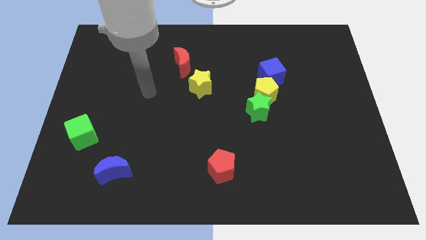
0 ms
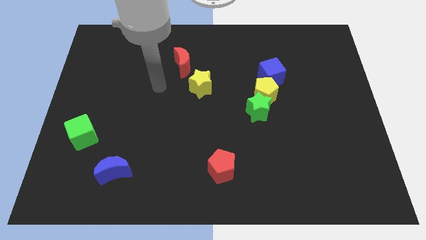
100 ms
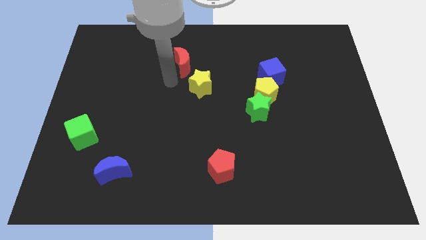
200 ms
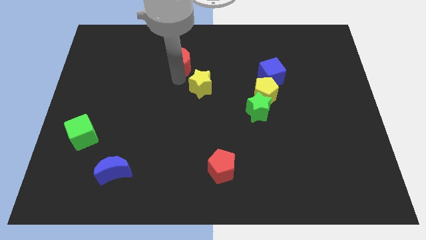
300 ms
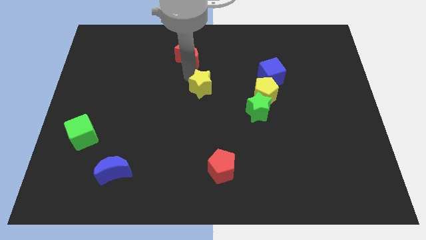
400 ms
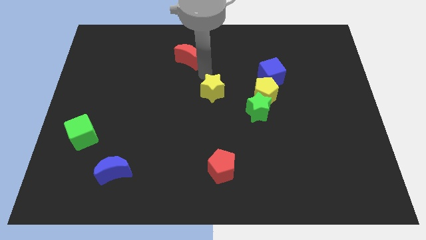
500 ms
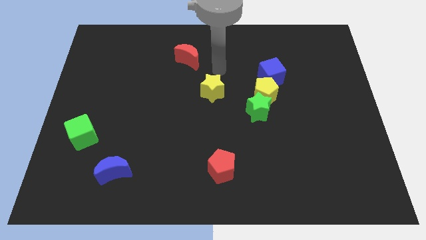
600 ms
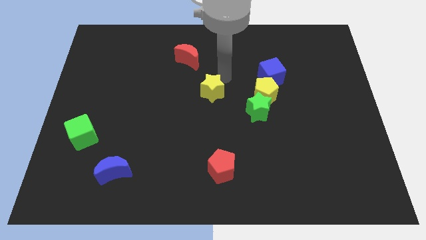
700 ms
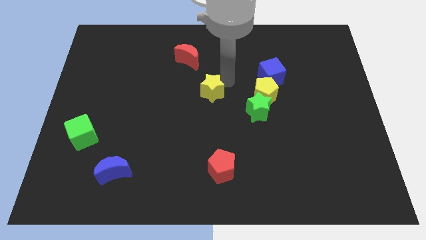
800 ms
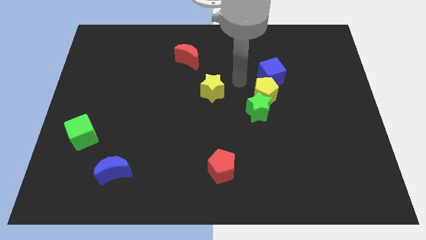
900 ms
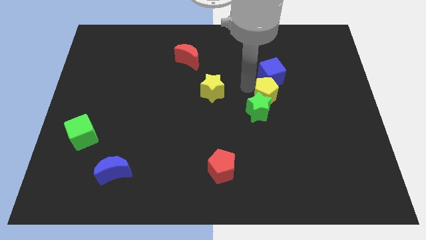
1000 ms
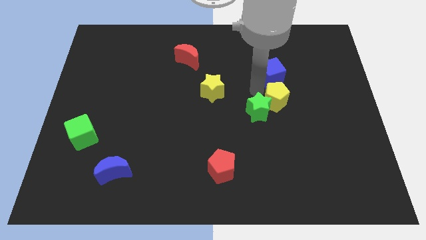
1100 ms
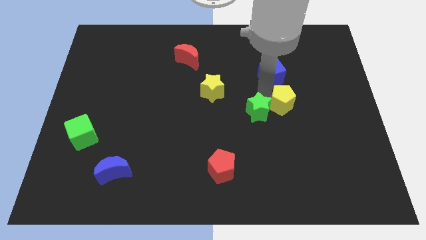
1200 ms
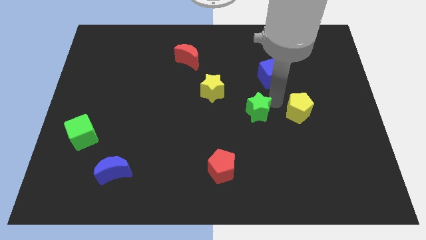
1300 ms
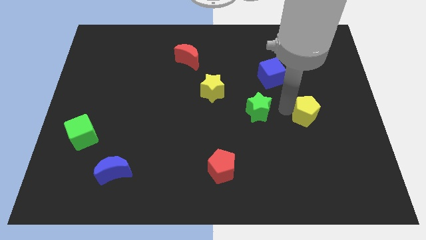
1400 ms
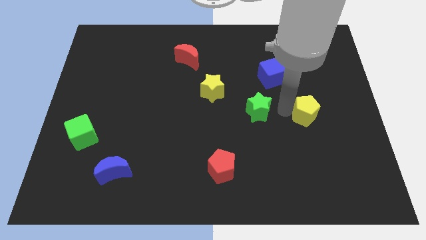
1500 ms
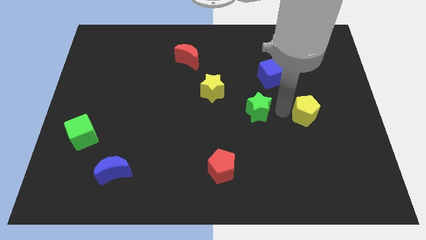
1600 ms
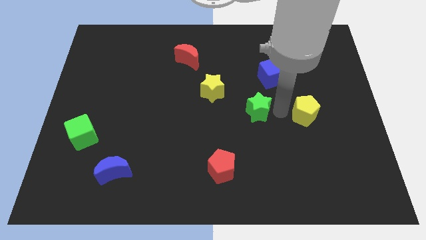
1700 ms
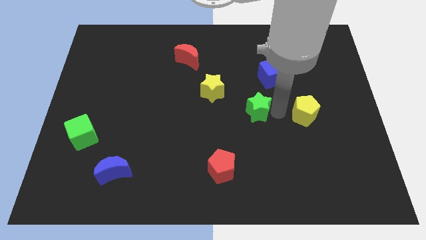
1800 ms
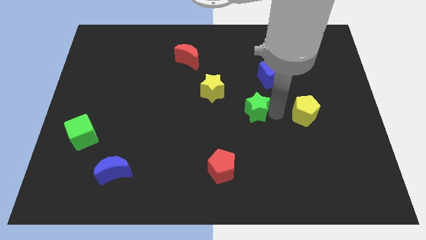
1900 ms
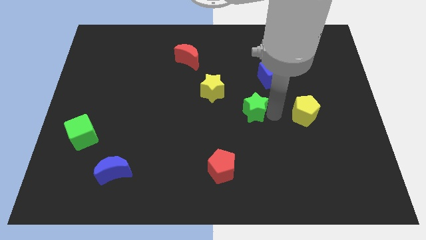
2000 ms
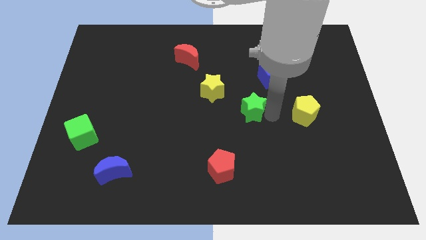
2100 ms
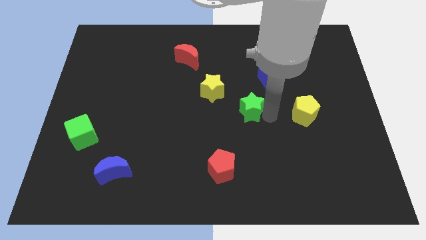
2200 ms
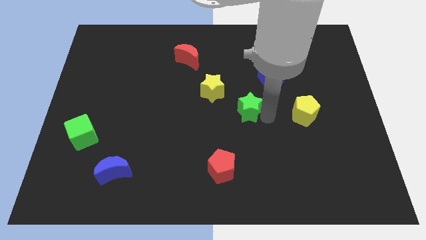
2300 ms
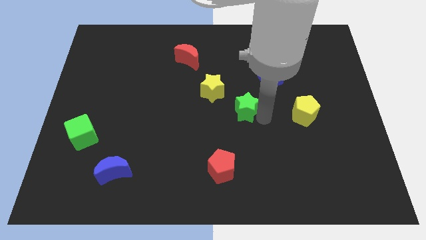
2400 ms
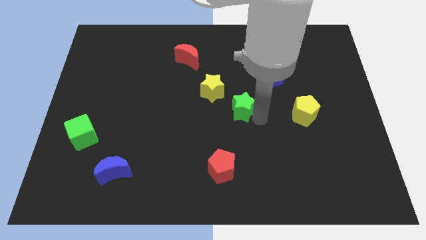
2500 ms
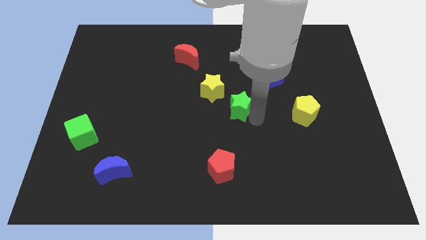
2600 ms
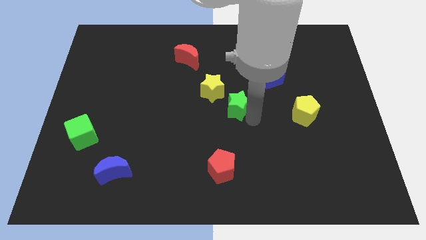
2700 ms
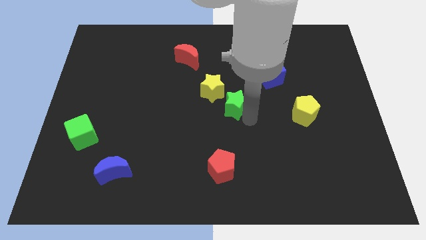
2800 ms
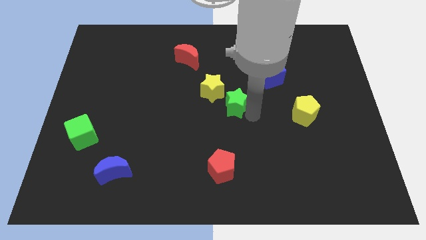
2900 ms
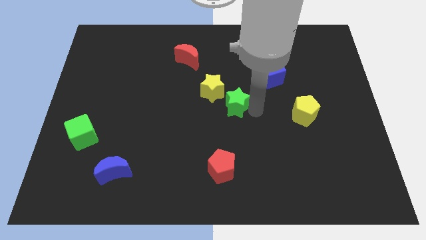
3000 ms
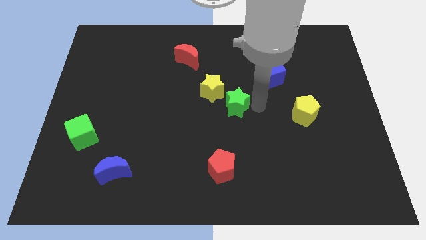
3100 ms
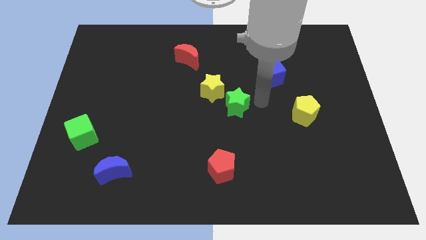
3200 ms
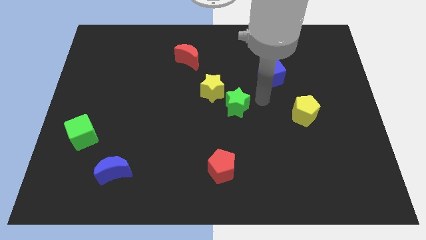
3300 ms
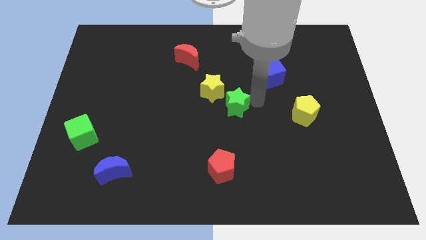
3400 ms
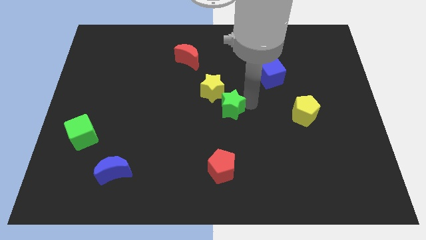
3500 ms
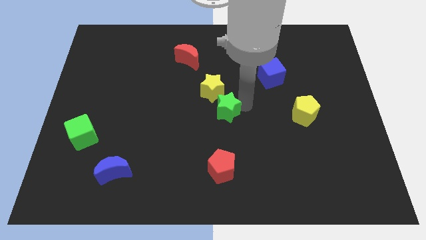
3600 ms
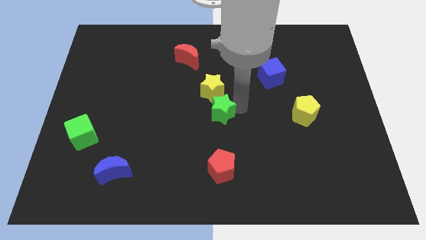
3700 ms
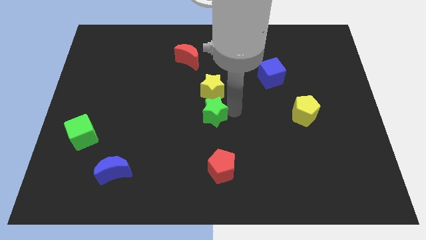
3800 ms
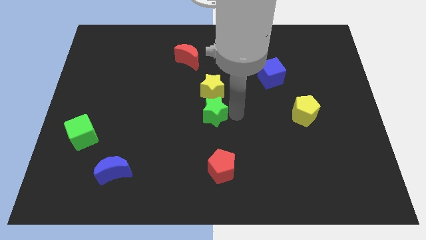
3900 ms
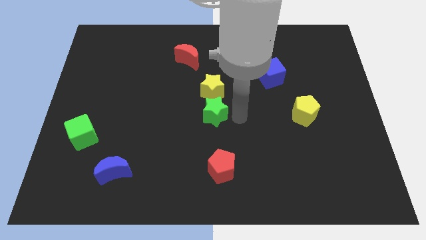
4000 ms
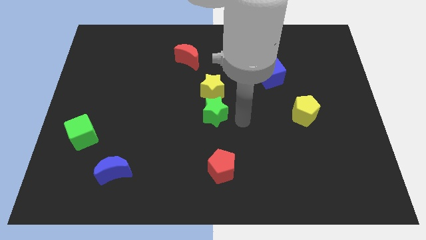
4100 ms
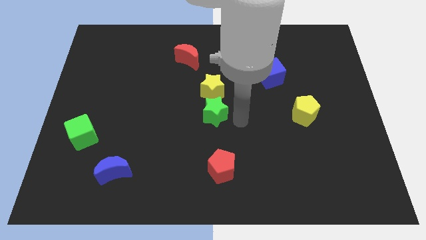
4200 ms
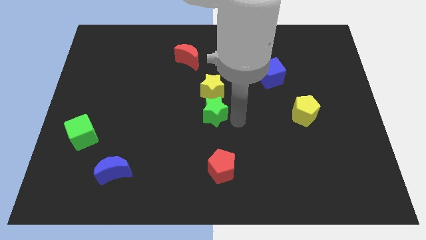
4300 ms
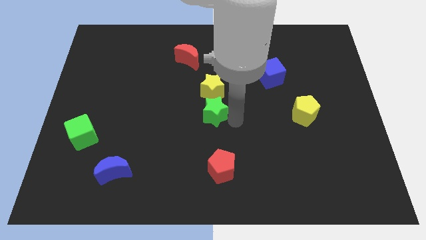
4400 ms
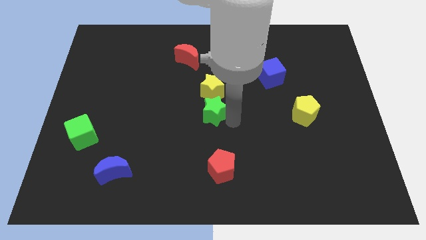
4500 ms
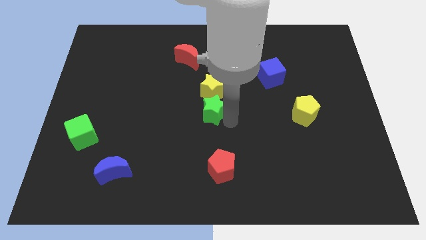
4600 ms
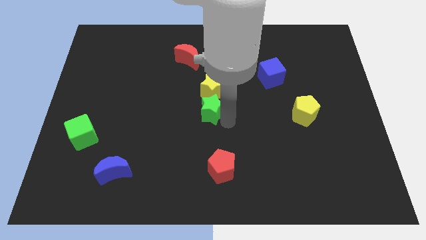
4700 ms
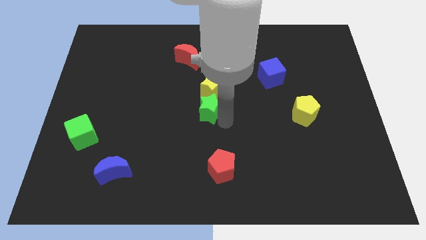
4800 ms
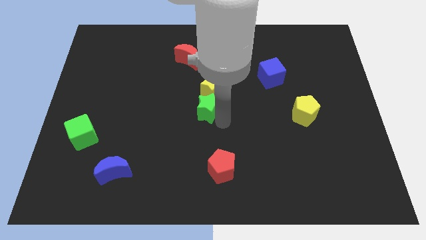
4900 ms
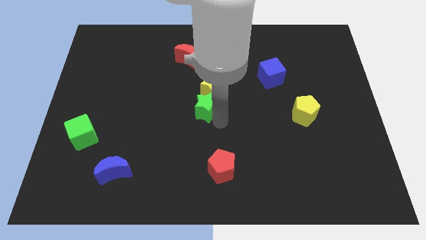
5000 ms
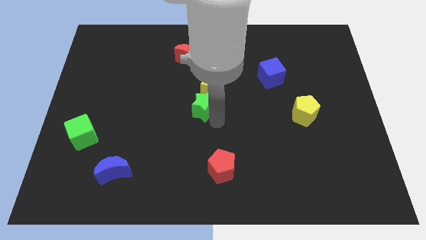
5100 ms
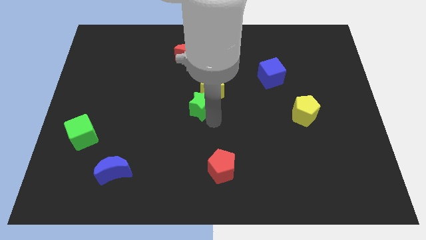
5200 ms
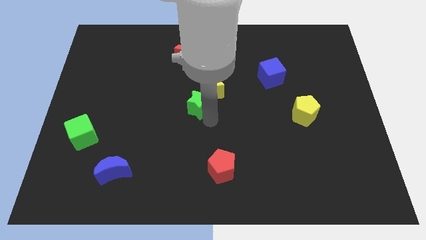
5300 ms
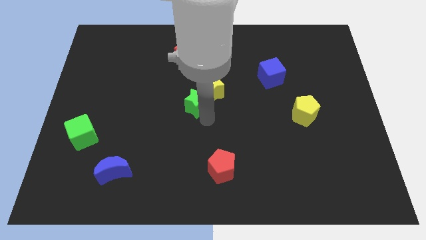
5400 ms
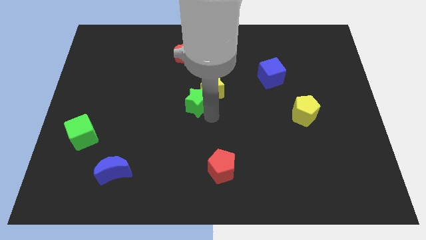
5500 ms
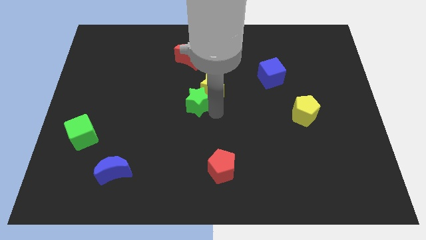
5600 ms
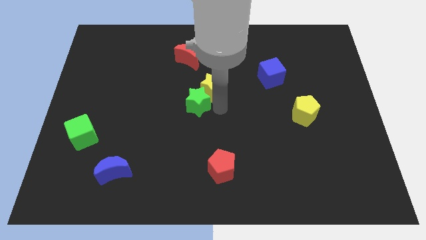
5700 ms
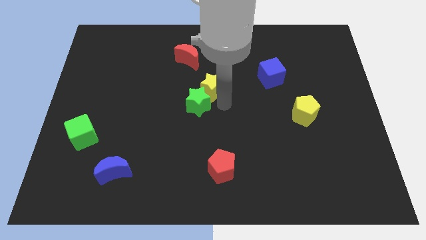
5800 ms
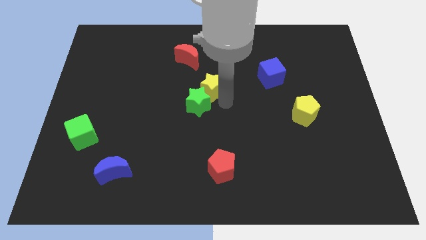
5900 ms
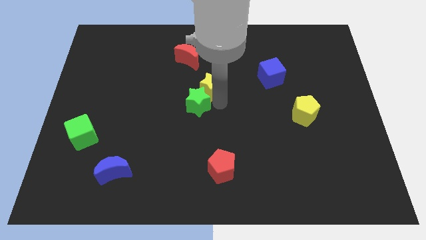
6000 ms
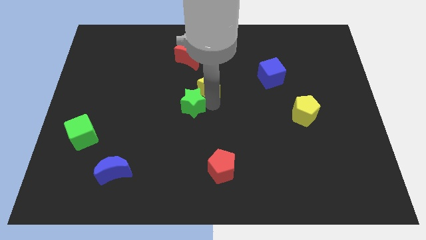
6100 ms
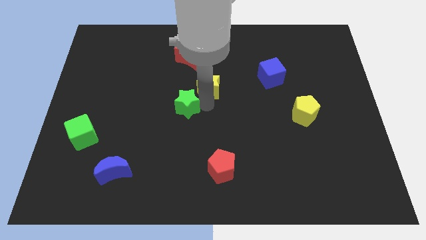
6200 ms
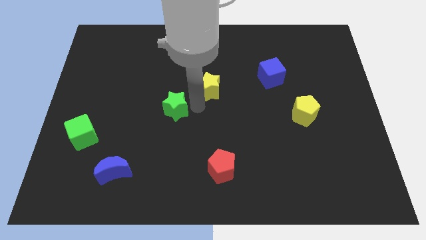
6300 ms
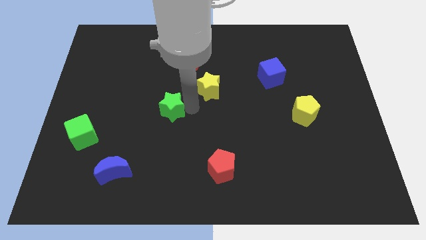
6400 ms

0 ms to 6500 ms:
move the green star to the left

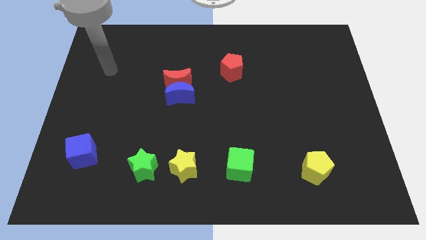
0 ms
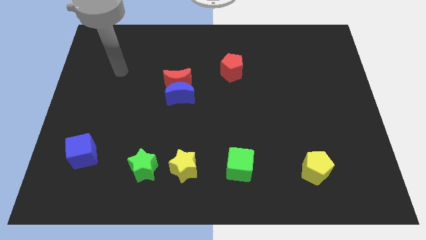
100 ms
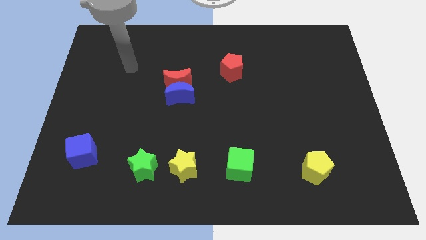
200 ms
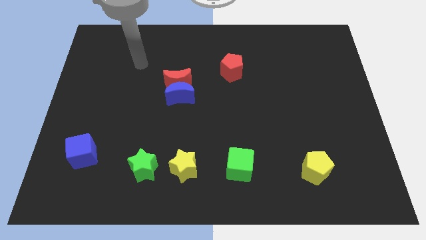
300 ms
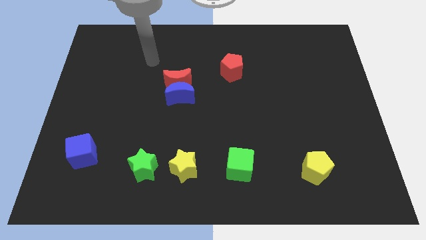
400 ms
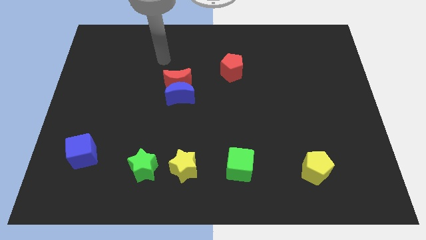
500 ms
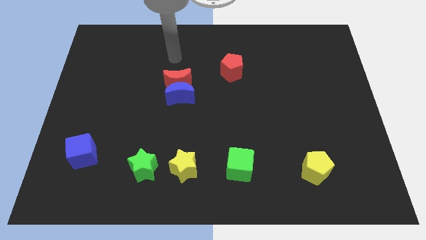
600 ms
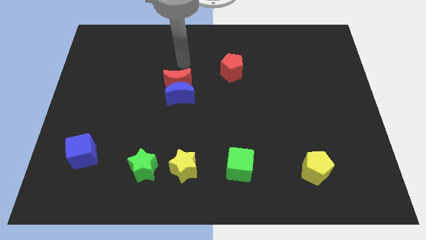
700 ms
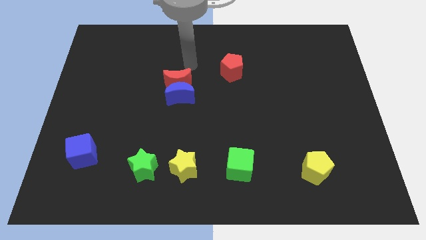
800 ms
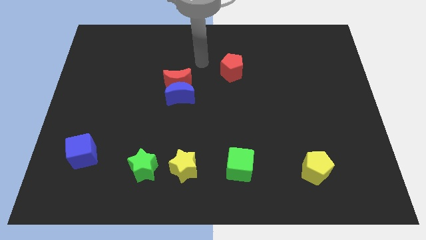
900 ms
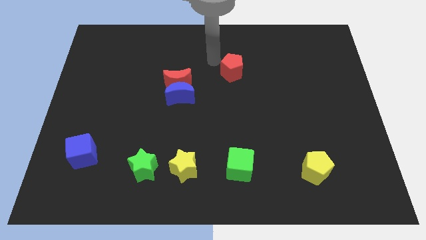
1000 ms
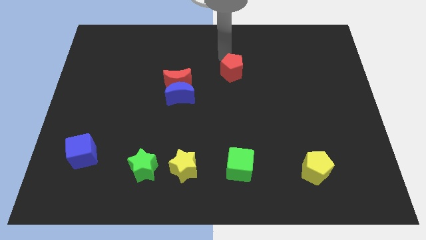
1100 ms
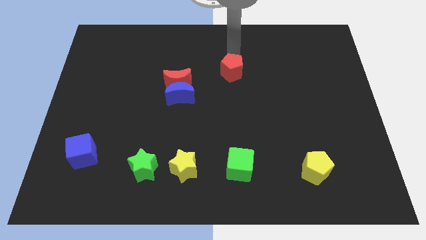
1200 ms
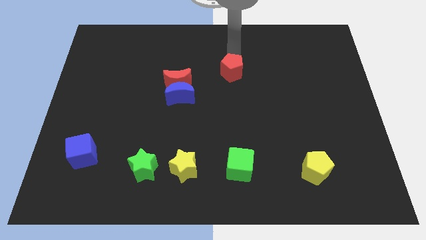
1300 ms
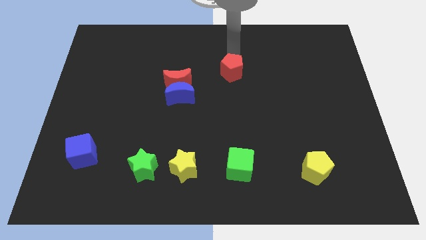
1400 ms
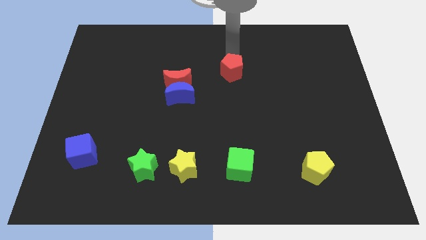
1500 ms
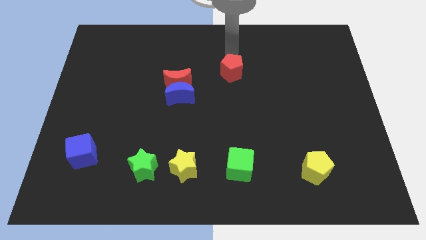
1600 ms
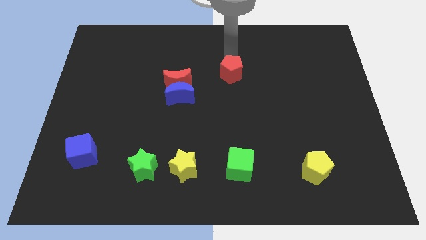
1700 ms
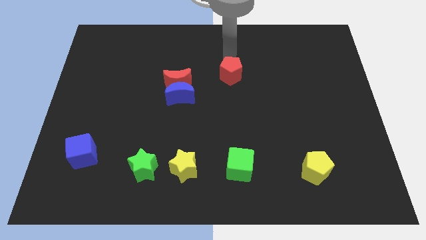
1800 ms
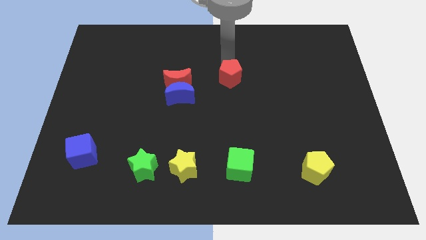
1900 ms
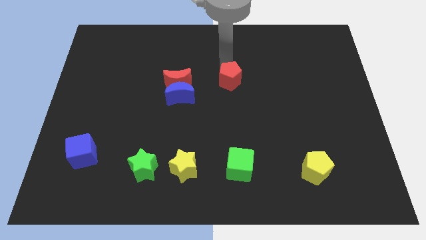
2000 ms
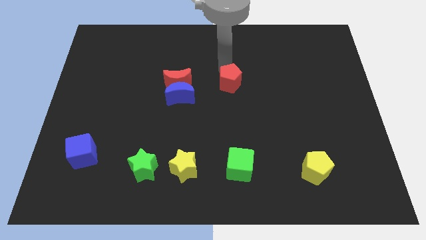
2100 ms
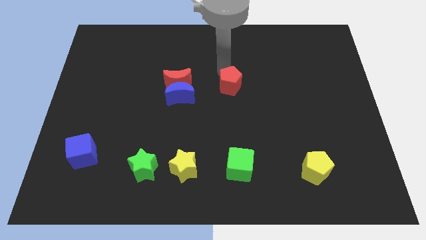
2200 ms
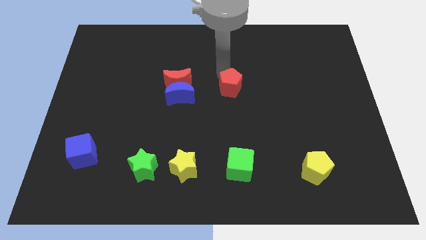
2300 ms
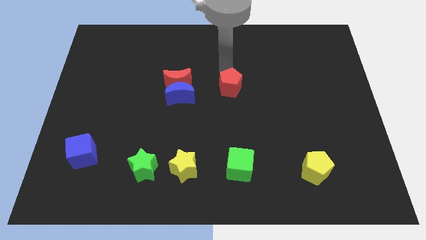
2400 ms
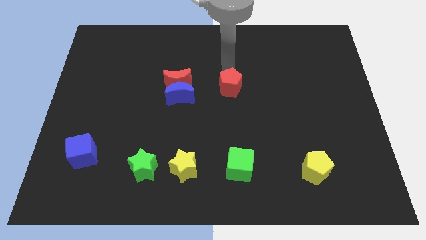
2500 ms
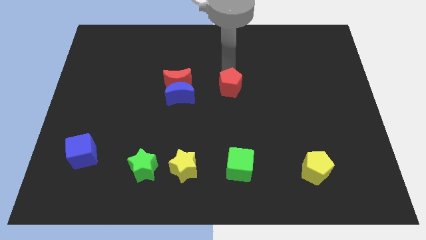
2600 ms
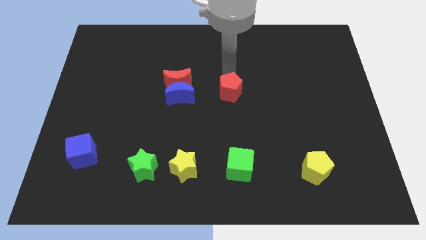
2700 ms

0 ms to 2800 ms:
move the red pentagon down somewhat
